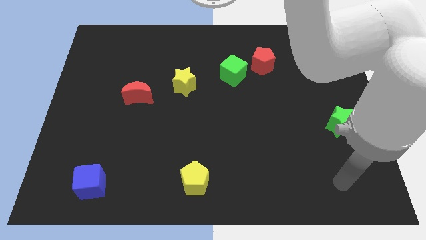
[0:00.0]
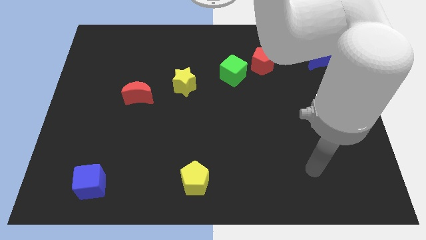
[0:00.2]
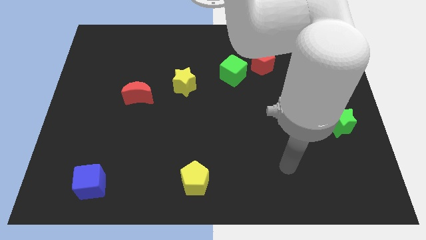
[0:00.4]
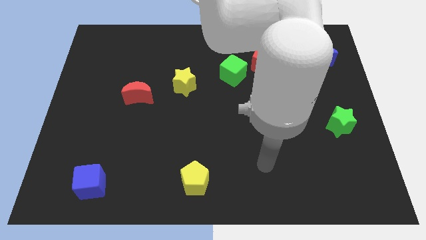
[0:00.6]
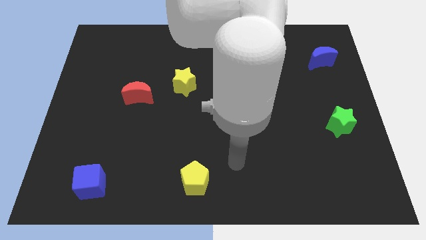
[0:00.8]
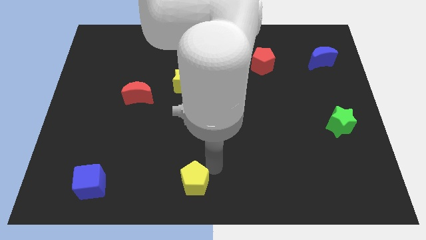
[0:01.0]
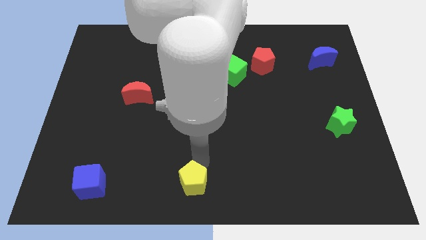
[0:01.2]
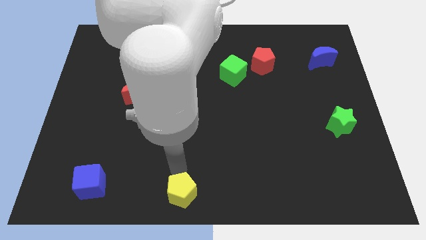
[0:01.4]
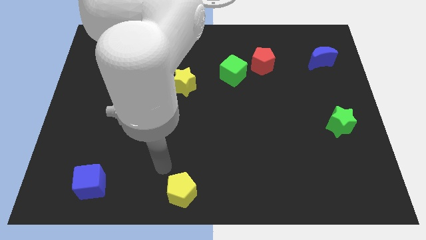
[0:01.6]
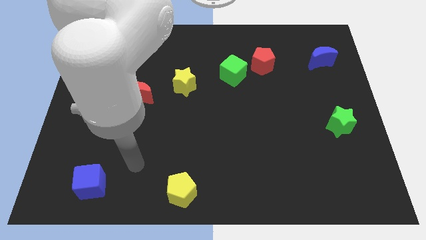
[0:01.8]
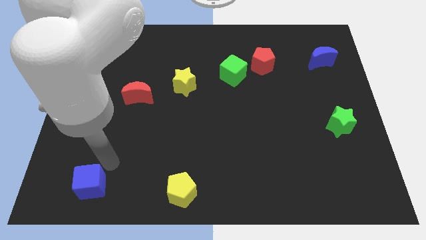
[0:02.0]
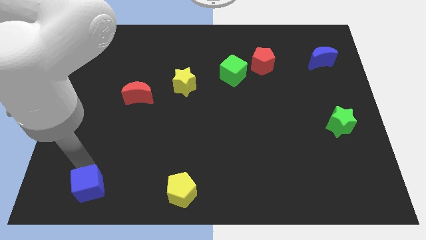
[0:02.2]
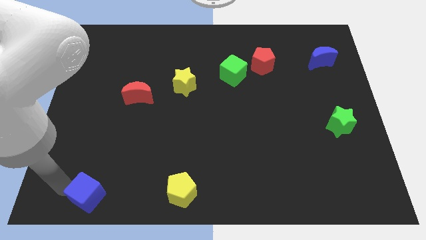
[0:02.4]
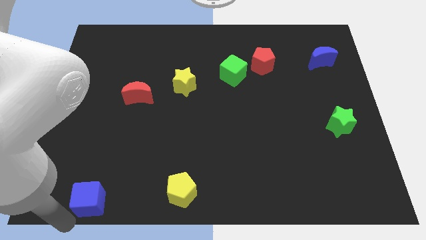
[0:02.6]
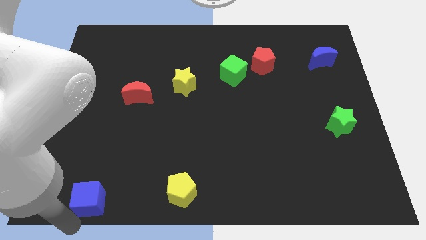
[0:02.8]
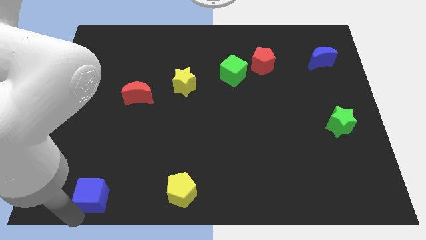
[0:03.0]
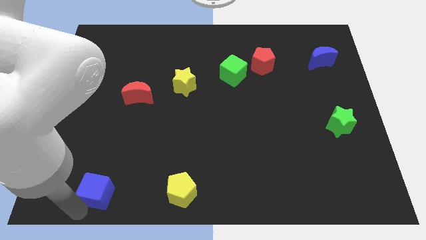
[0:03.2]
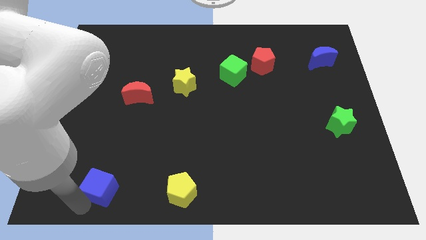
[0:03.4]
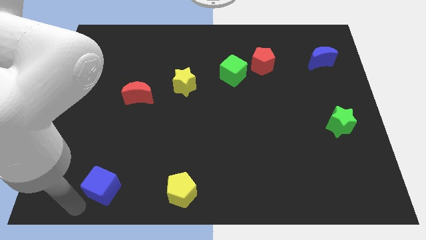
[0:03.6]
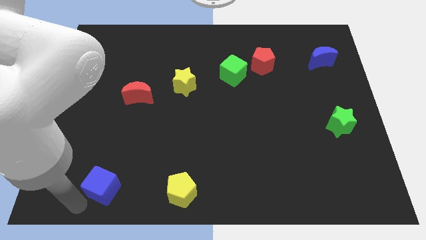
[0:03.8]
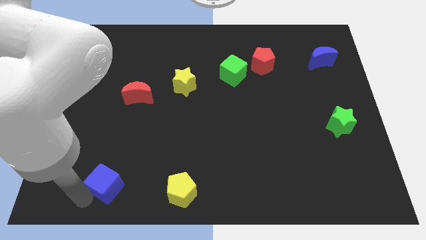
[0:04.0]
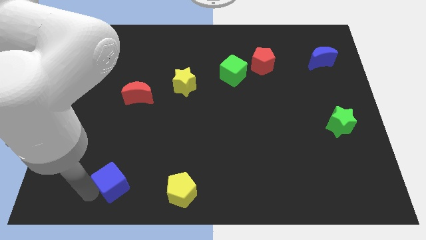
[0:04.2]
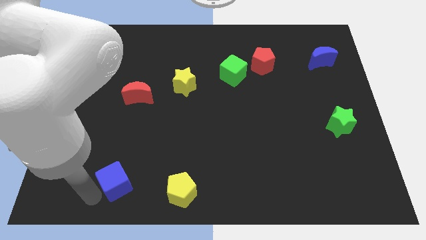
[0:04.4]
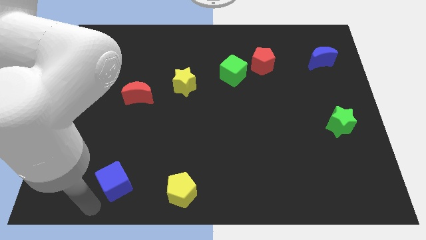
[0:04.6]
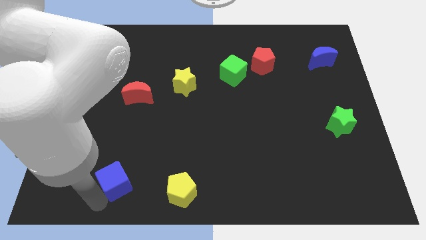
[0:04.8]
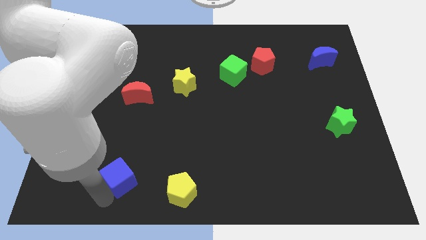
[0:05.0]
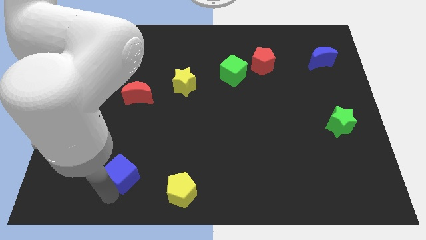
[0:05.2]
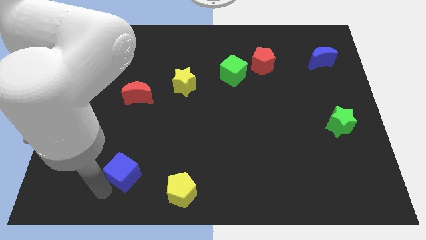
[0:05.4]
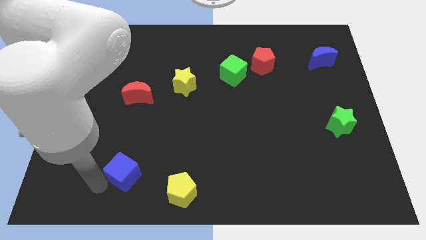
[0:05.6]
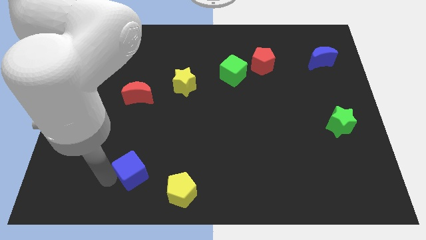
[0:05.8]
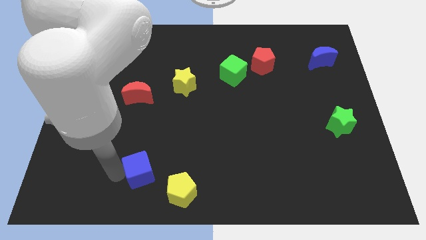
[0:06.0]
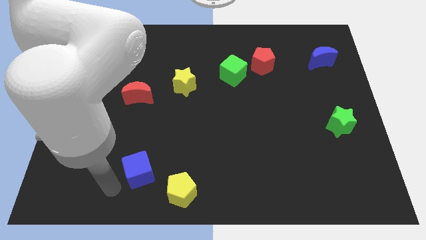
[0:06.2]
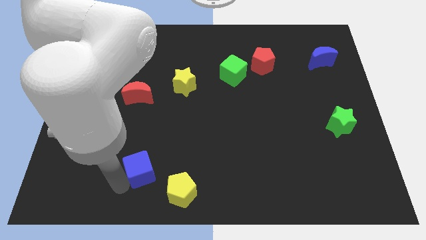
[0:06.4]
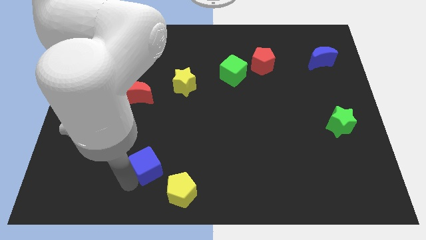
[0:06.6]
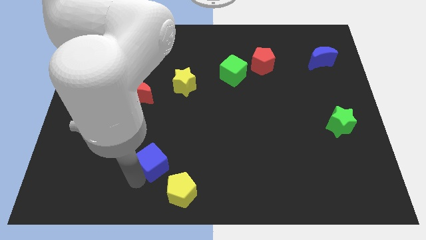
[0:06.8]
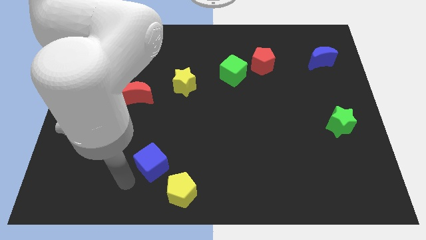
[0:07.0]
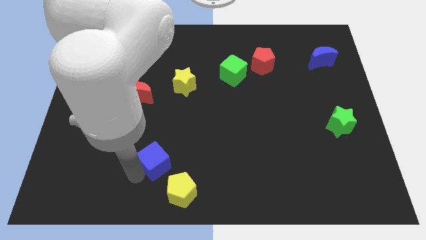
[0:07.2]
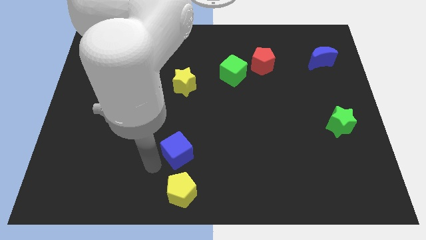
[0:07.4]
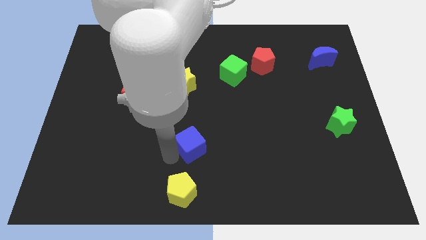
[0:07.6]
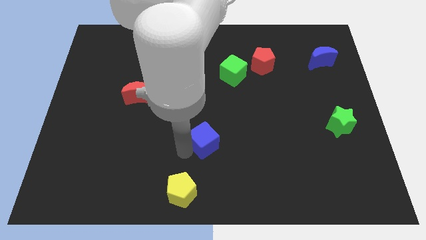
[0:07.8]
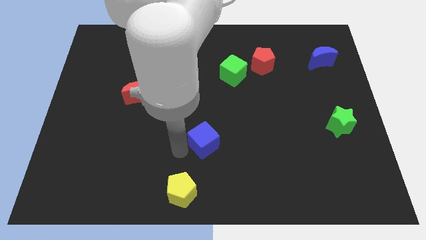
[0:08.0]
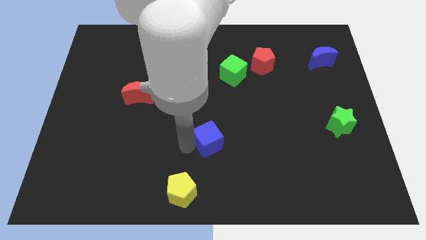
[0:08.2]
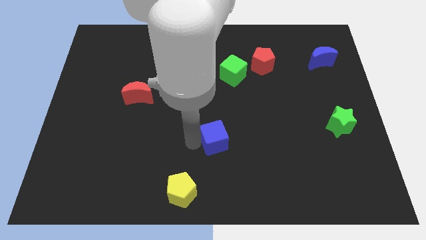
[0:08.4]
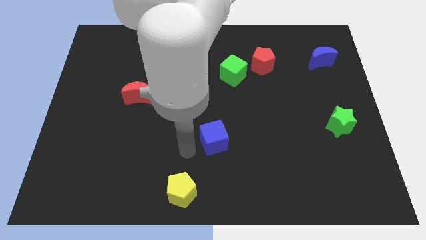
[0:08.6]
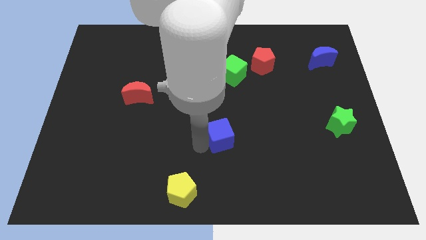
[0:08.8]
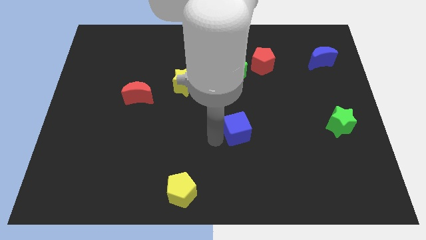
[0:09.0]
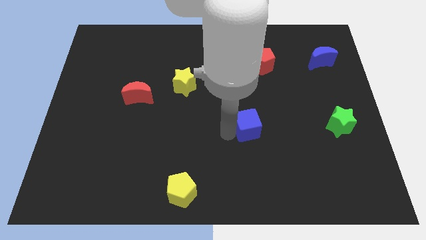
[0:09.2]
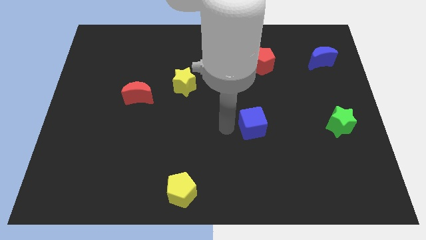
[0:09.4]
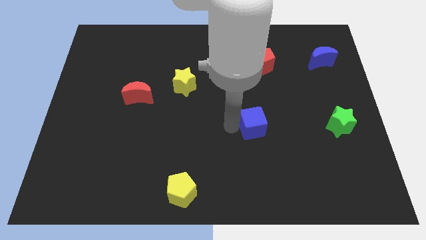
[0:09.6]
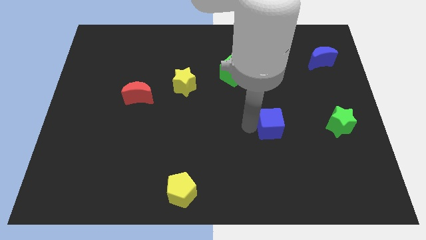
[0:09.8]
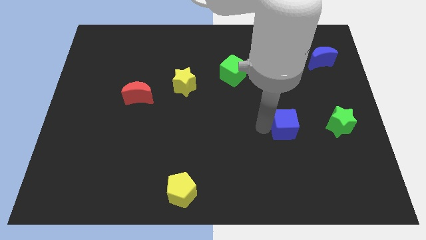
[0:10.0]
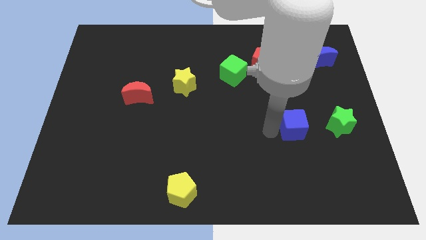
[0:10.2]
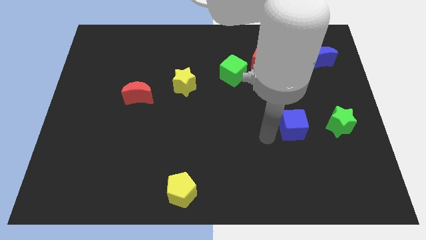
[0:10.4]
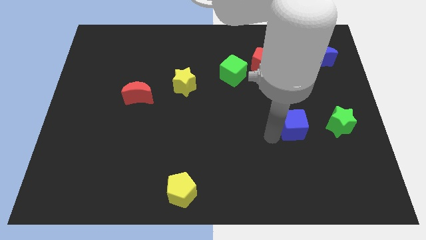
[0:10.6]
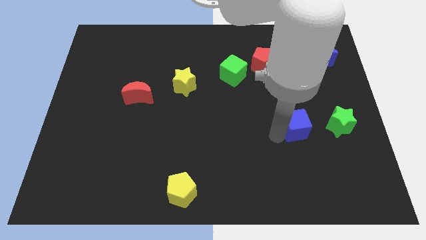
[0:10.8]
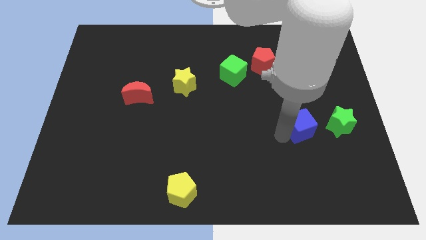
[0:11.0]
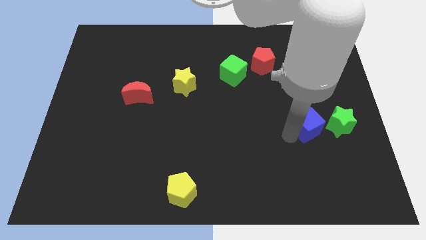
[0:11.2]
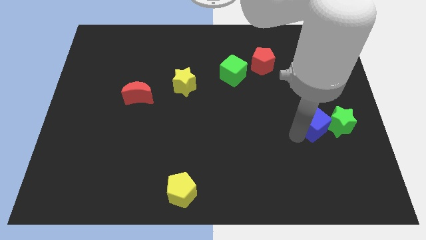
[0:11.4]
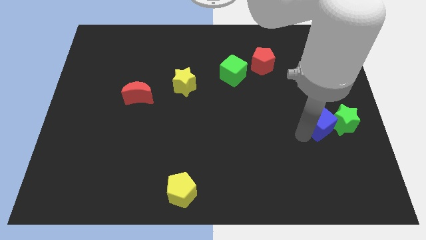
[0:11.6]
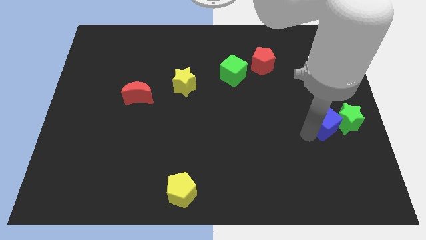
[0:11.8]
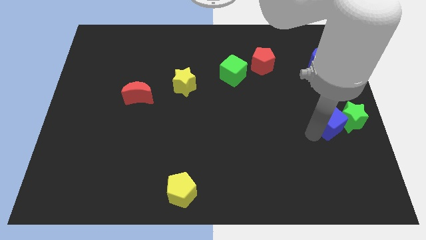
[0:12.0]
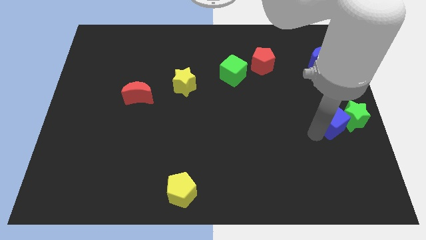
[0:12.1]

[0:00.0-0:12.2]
slide the blue cube to the center right

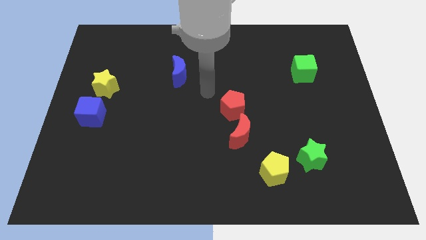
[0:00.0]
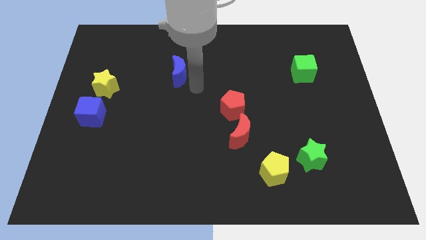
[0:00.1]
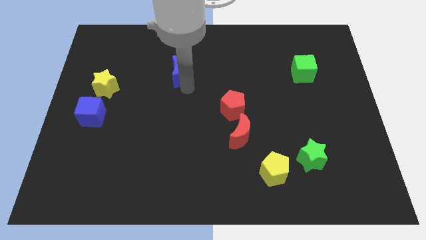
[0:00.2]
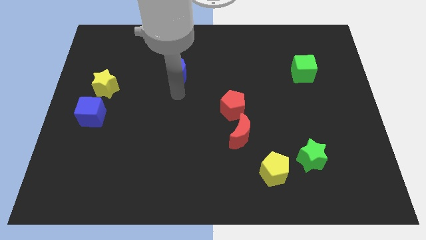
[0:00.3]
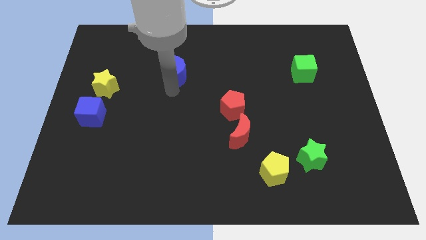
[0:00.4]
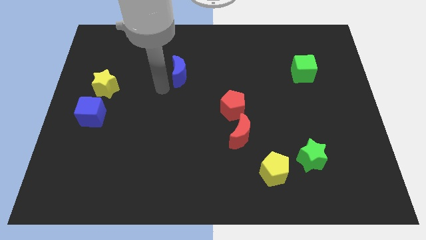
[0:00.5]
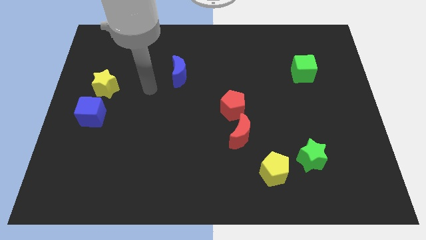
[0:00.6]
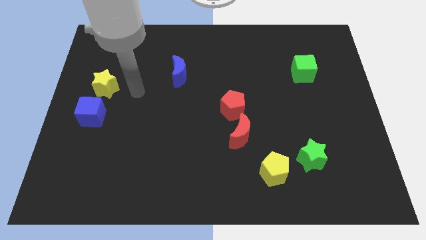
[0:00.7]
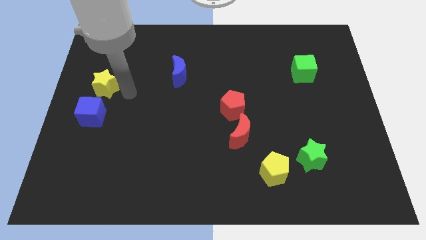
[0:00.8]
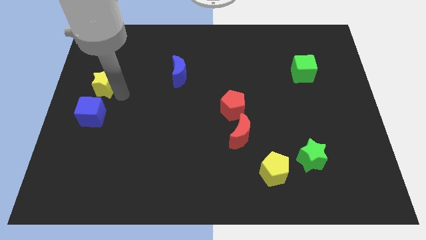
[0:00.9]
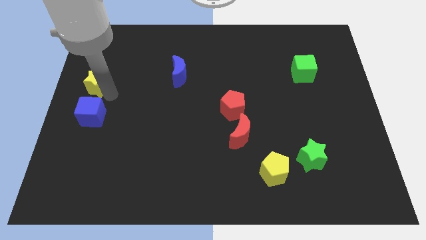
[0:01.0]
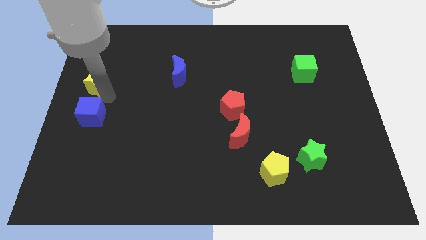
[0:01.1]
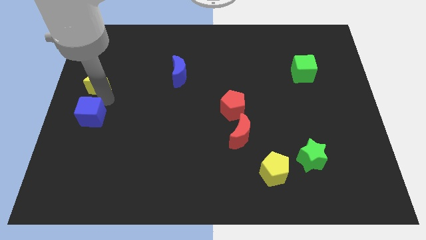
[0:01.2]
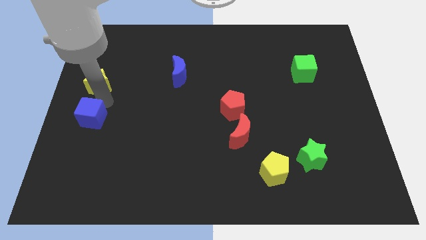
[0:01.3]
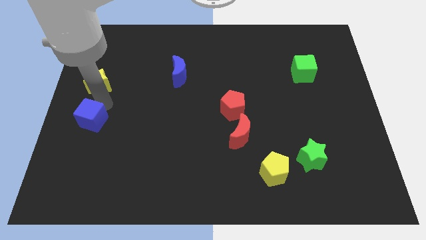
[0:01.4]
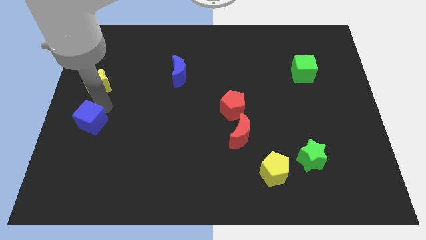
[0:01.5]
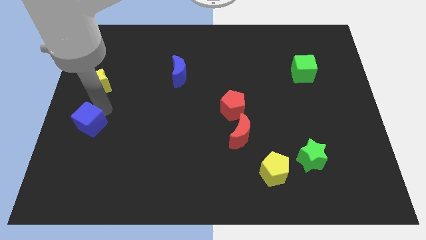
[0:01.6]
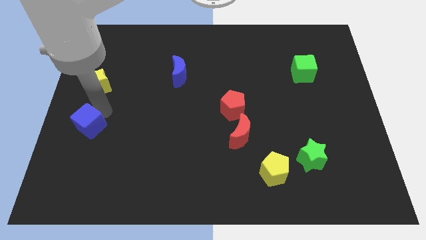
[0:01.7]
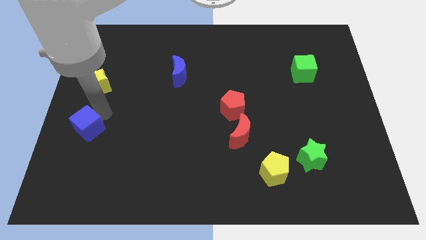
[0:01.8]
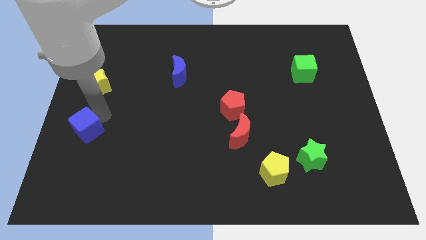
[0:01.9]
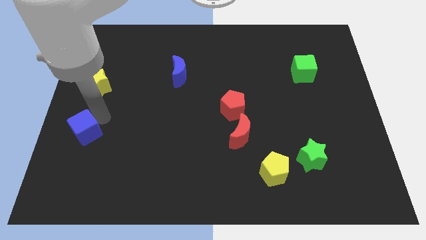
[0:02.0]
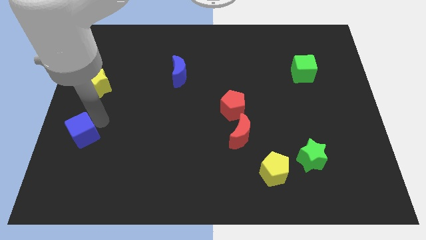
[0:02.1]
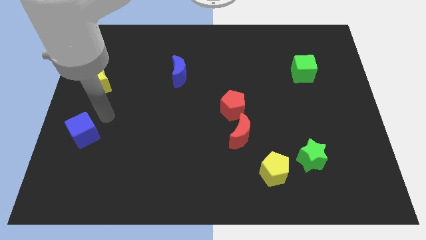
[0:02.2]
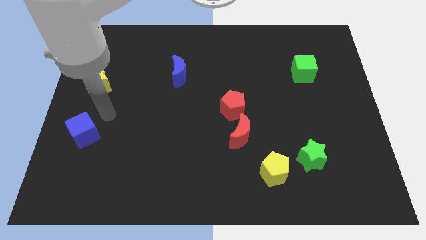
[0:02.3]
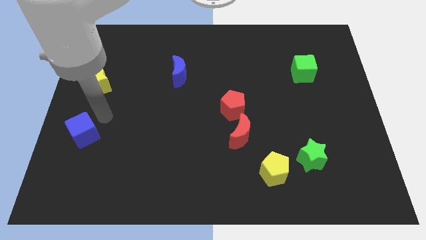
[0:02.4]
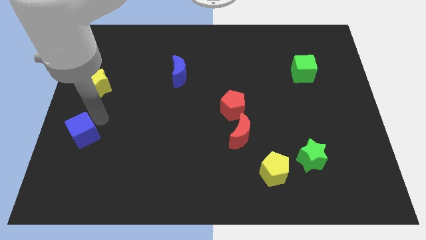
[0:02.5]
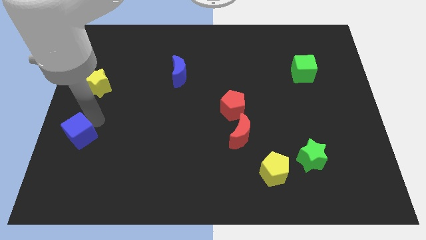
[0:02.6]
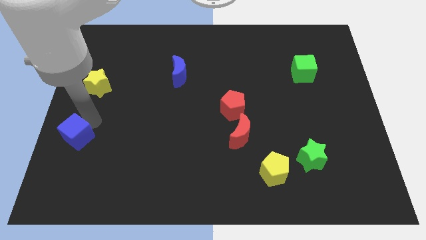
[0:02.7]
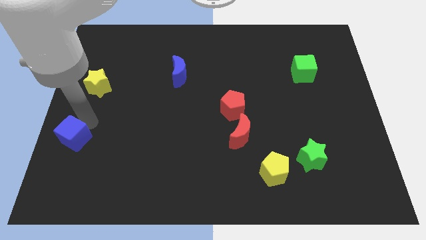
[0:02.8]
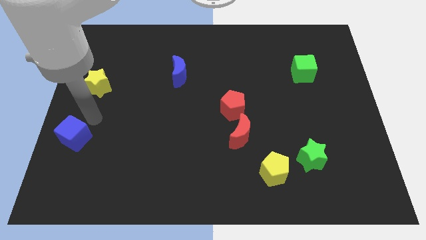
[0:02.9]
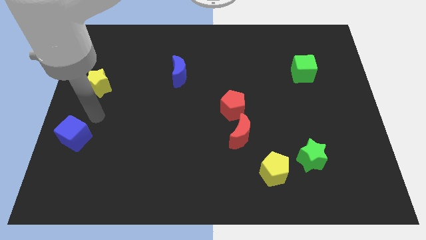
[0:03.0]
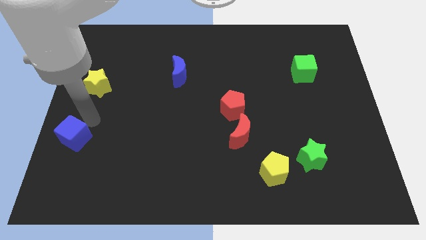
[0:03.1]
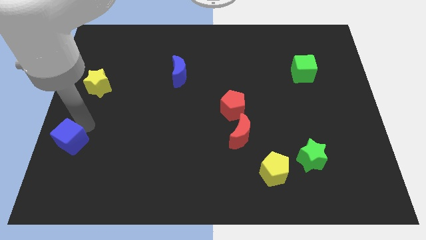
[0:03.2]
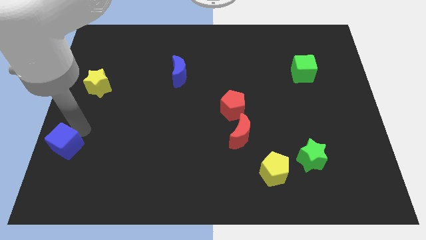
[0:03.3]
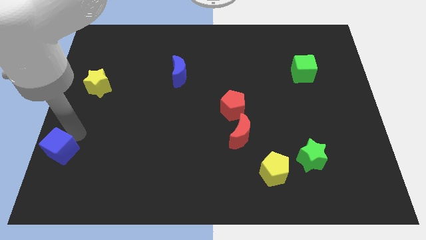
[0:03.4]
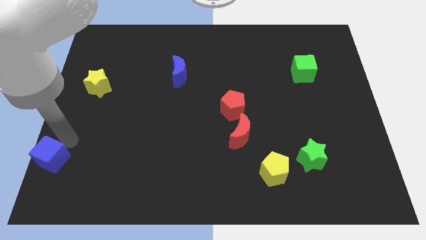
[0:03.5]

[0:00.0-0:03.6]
put the blue cube to the bottom left corner
